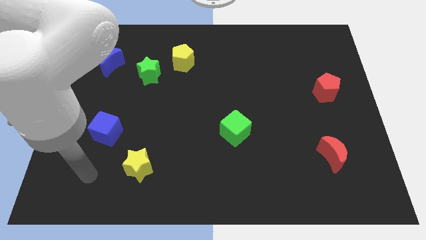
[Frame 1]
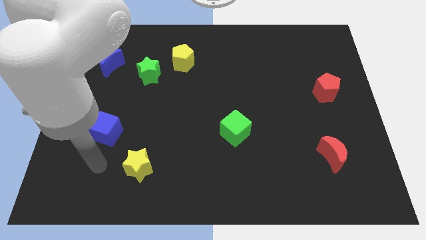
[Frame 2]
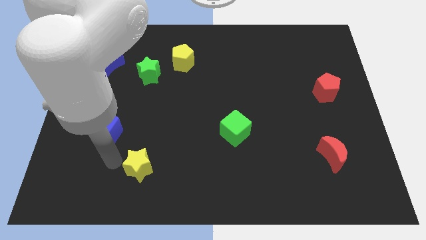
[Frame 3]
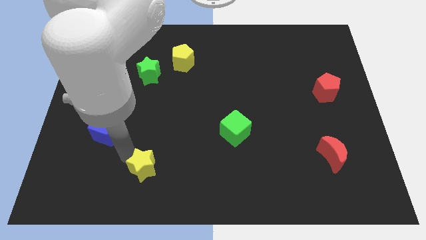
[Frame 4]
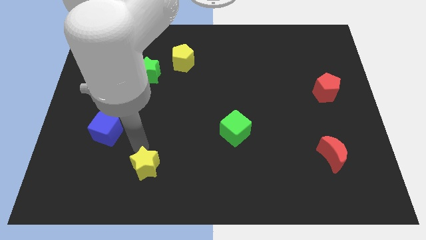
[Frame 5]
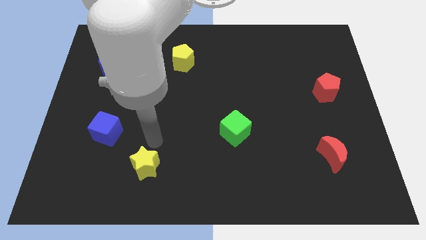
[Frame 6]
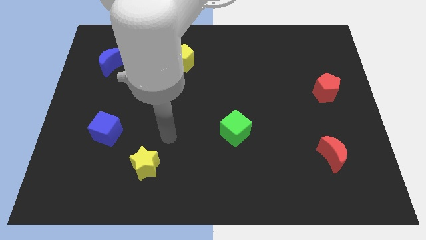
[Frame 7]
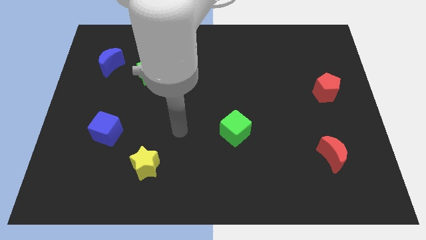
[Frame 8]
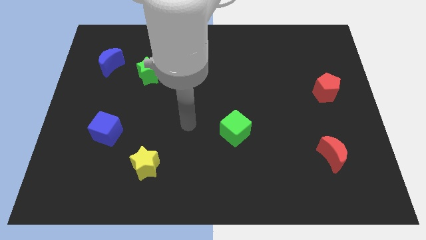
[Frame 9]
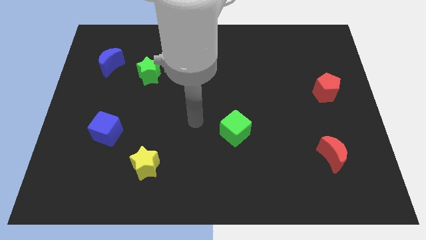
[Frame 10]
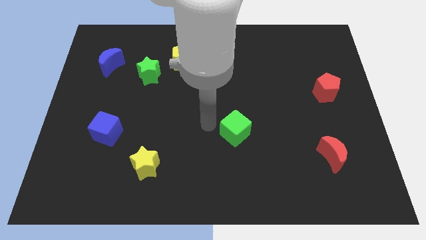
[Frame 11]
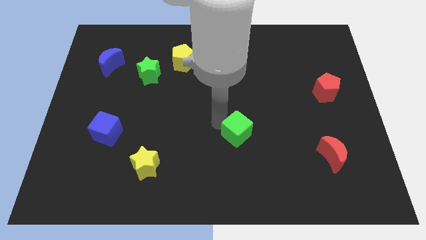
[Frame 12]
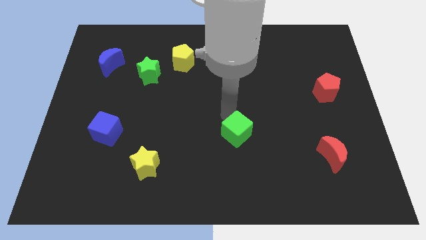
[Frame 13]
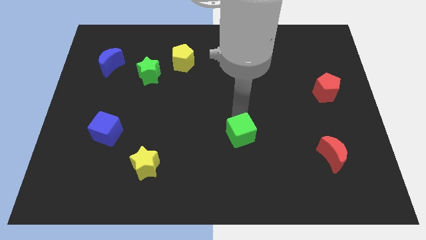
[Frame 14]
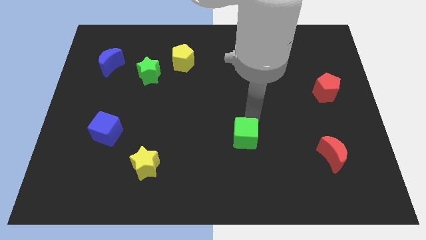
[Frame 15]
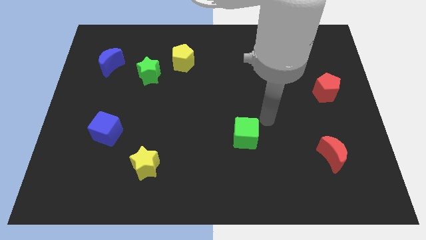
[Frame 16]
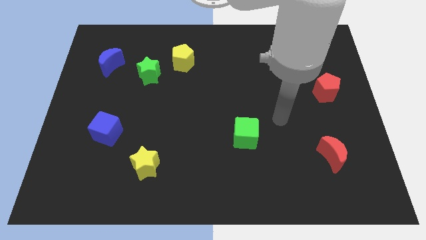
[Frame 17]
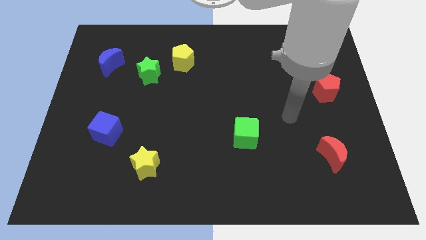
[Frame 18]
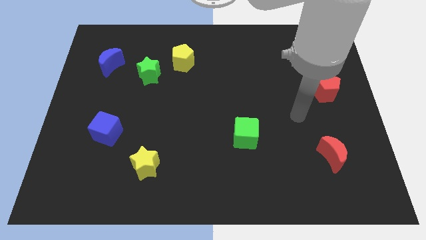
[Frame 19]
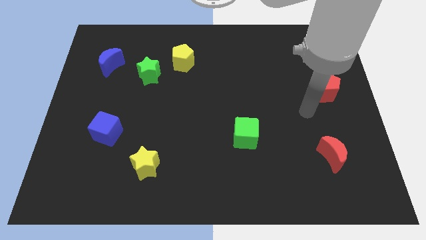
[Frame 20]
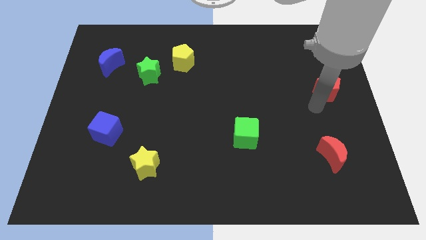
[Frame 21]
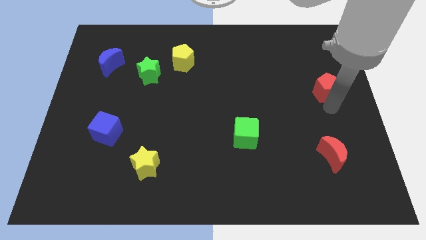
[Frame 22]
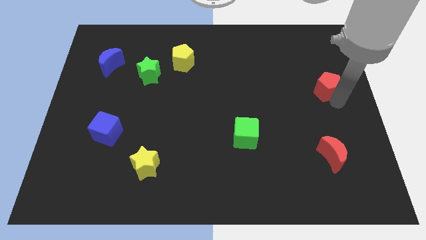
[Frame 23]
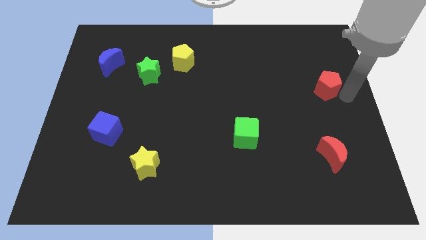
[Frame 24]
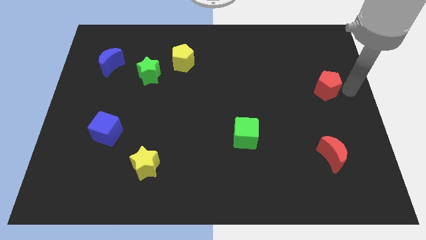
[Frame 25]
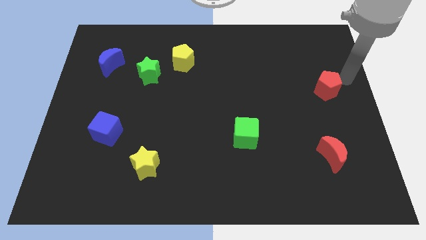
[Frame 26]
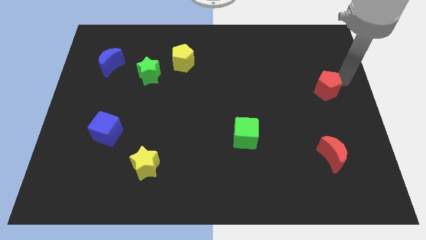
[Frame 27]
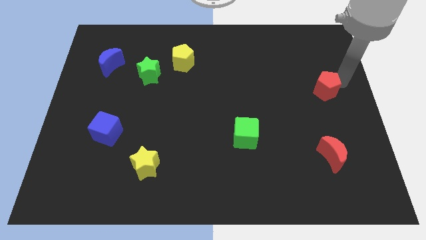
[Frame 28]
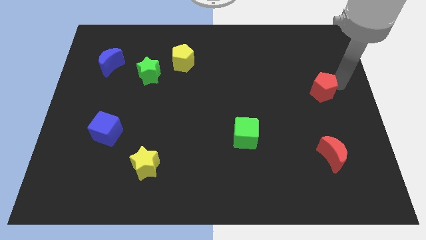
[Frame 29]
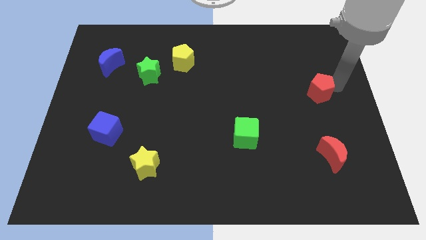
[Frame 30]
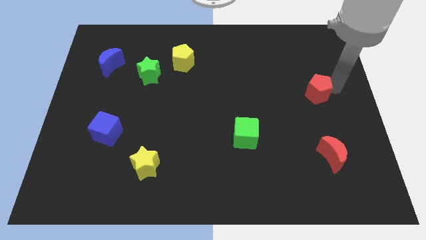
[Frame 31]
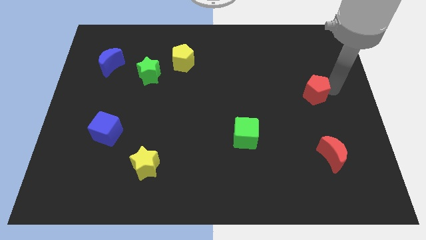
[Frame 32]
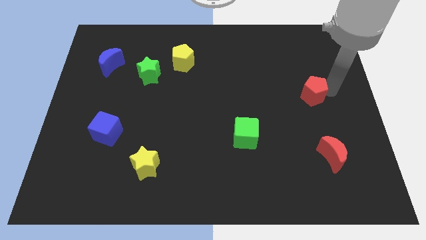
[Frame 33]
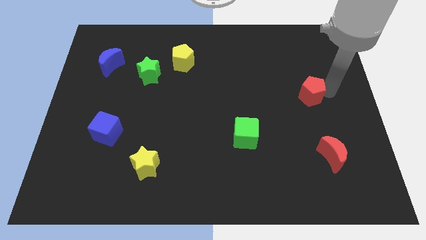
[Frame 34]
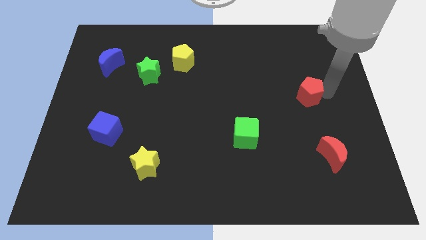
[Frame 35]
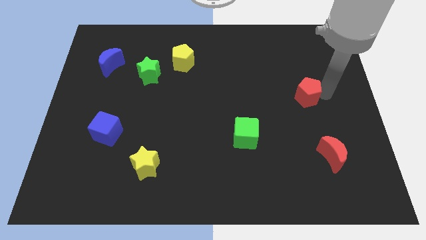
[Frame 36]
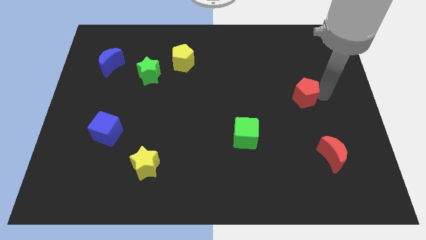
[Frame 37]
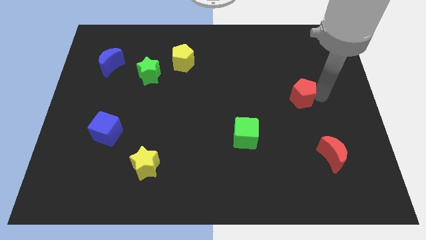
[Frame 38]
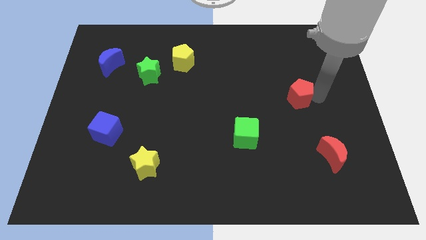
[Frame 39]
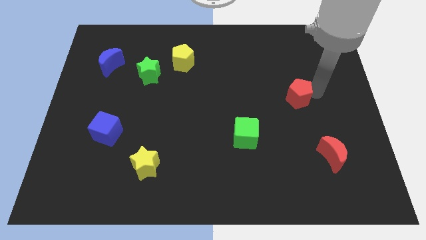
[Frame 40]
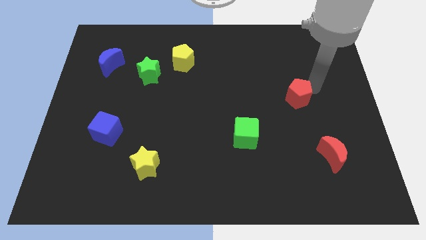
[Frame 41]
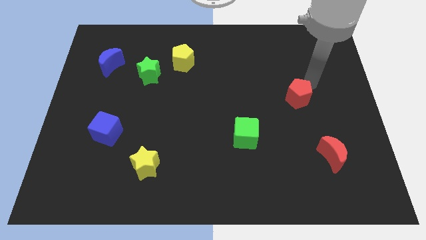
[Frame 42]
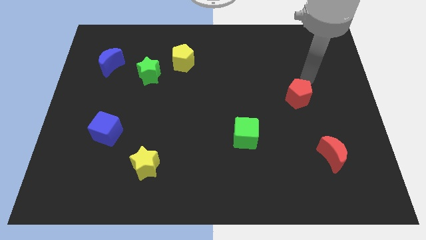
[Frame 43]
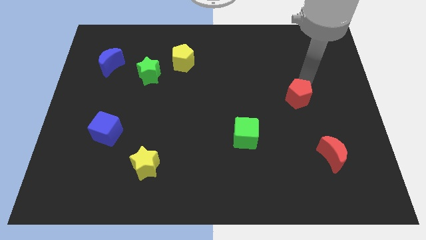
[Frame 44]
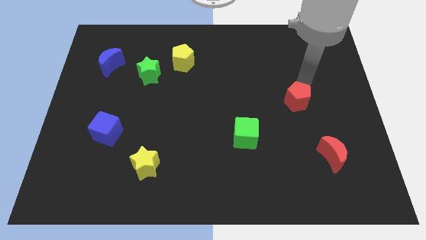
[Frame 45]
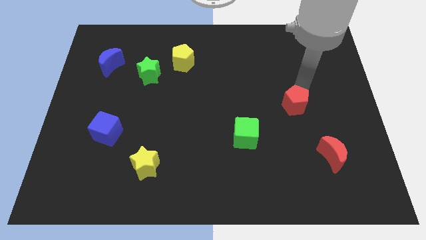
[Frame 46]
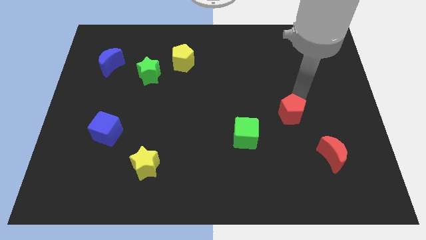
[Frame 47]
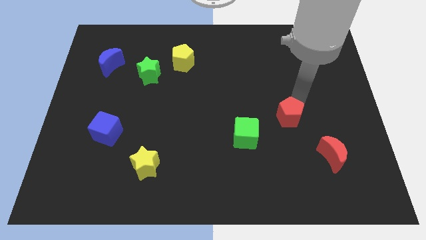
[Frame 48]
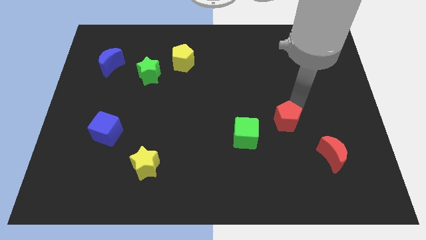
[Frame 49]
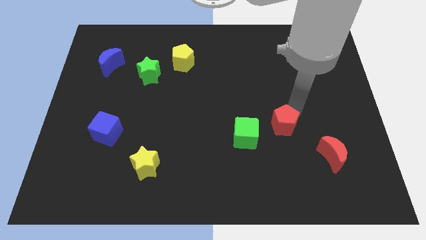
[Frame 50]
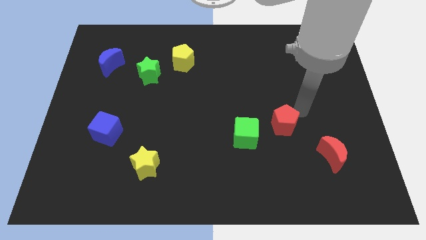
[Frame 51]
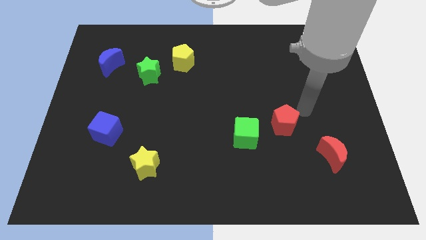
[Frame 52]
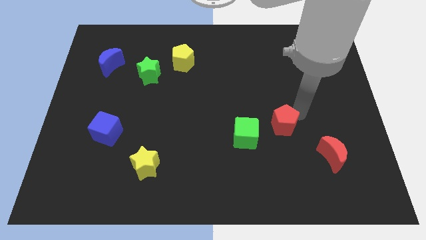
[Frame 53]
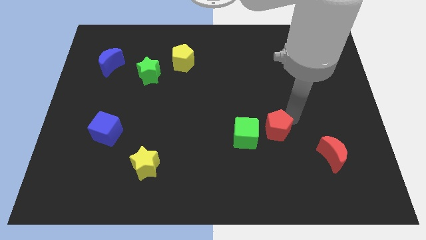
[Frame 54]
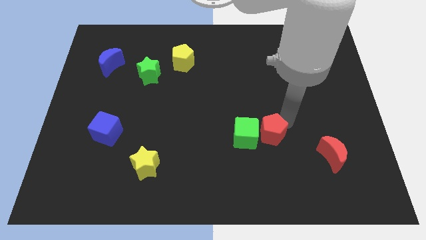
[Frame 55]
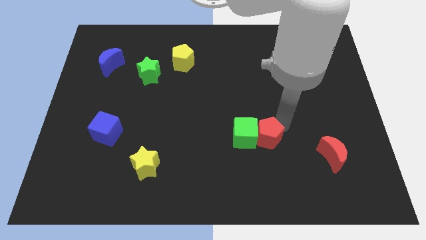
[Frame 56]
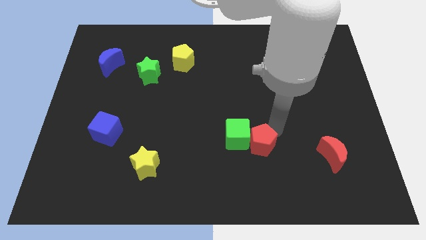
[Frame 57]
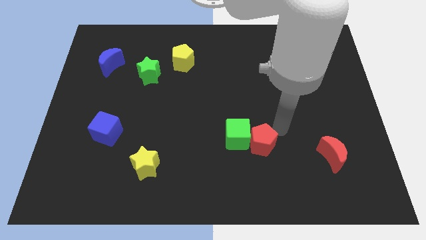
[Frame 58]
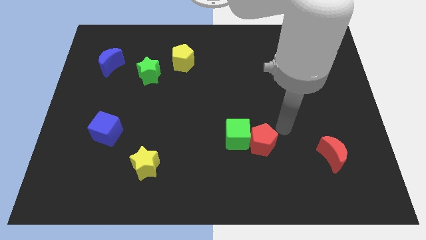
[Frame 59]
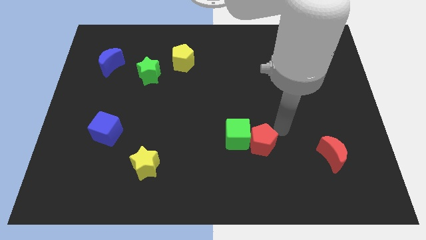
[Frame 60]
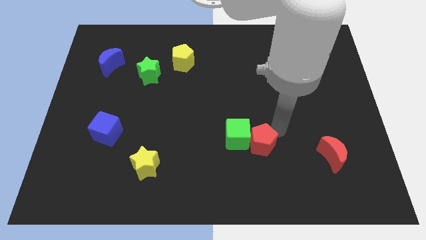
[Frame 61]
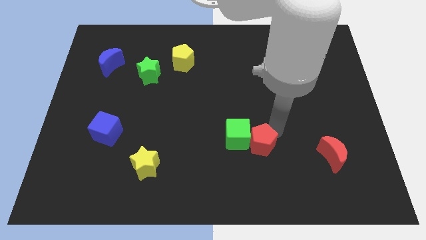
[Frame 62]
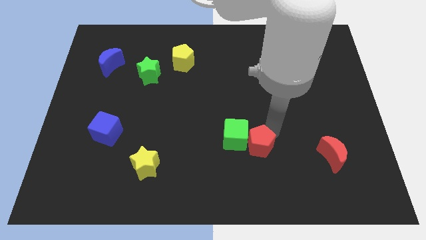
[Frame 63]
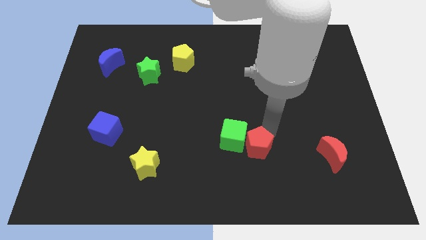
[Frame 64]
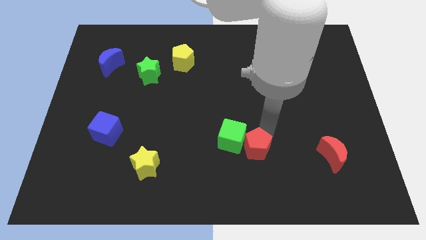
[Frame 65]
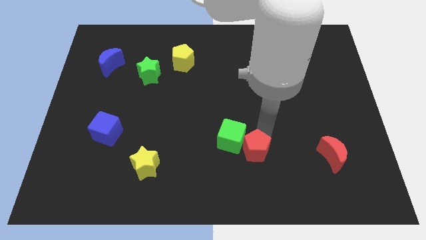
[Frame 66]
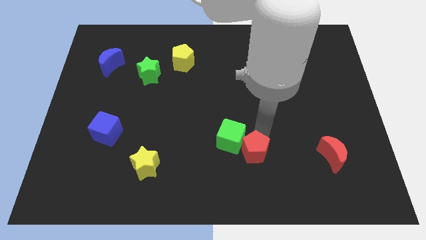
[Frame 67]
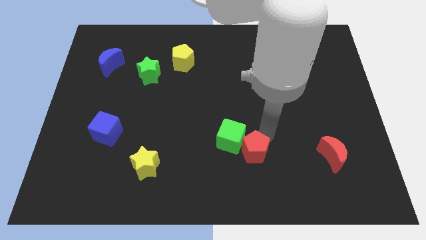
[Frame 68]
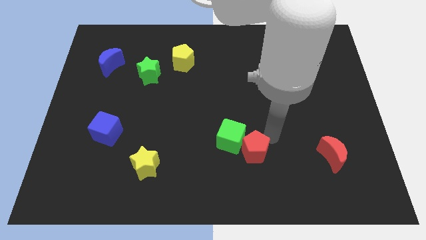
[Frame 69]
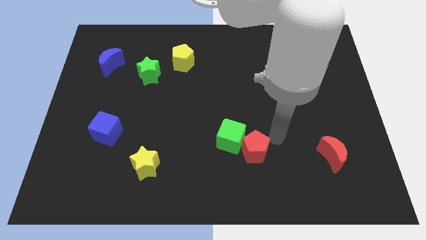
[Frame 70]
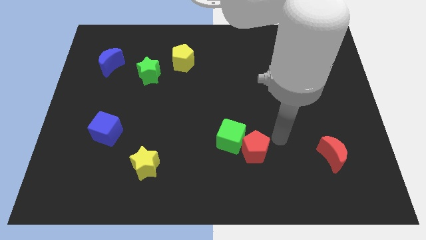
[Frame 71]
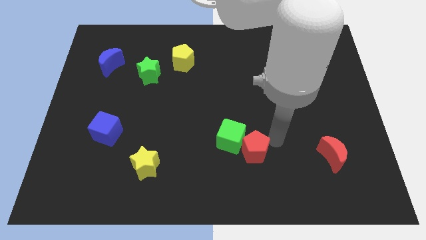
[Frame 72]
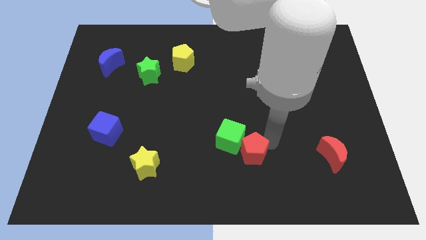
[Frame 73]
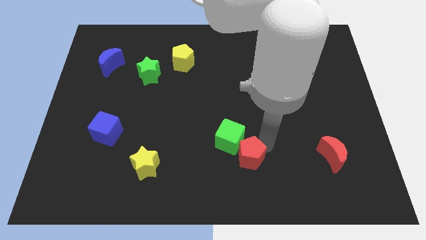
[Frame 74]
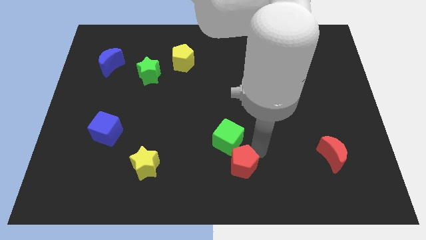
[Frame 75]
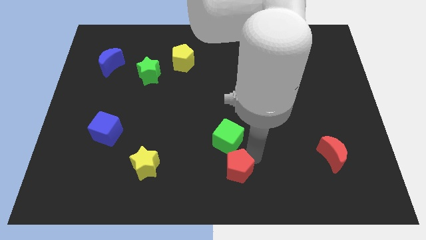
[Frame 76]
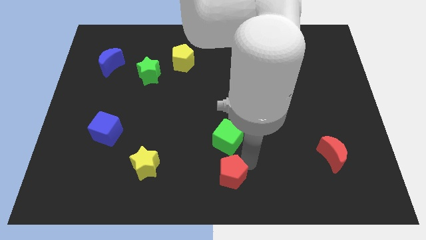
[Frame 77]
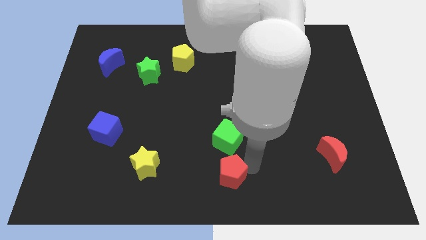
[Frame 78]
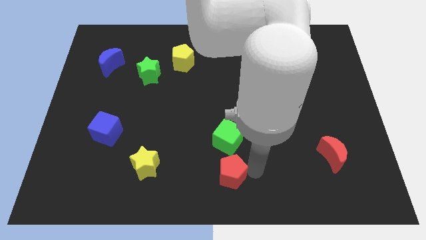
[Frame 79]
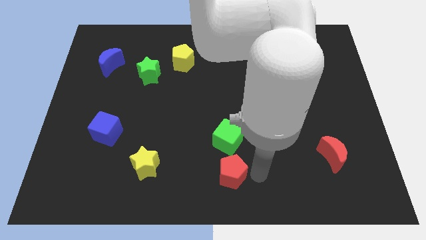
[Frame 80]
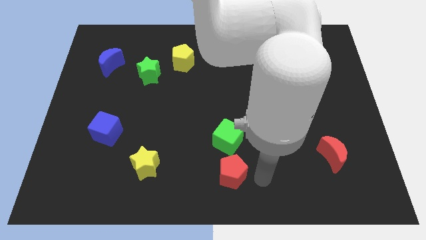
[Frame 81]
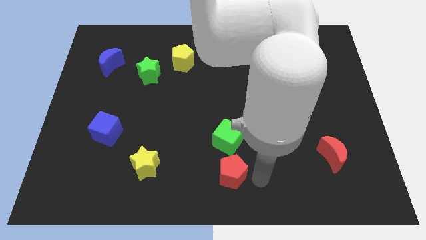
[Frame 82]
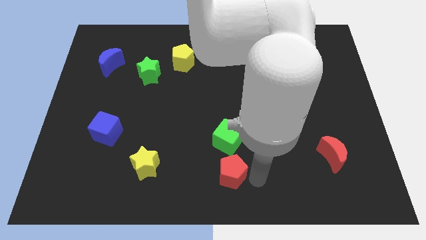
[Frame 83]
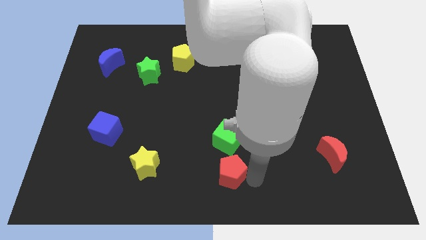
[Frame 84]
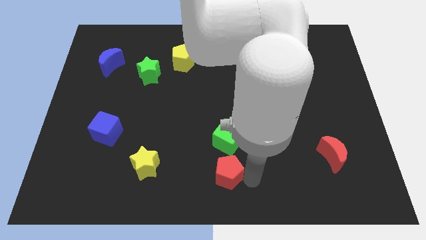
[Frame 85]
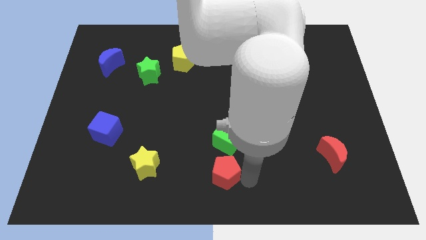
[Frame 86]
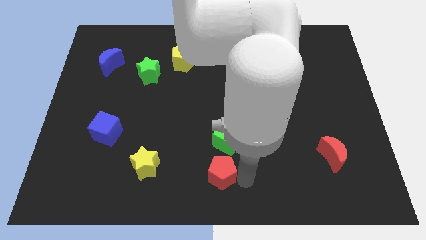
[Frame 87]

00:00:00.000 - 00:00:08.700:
push the red pentagon just right of the yellow star
